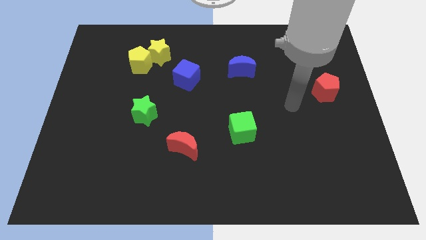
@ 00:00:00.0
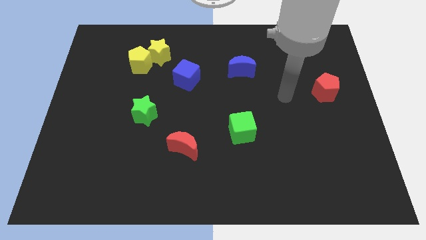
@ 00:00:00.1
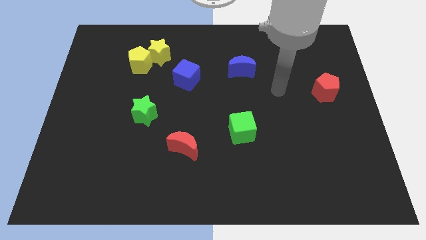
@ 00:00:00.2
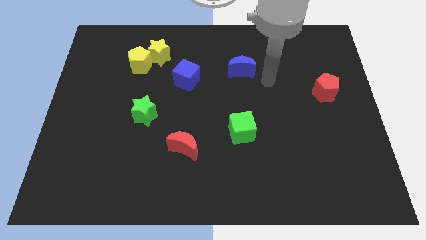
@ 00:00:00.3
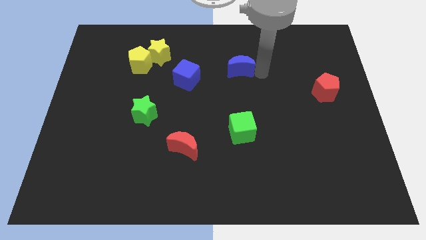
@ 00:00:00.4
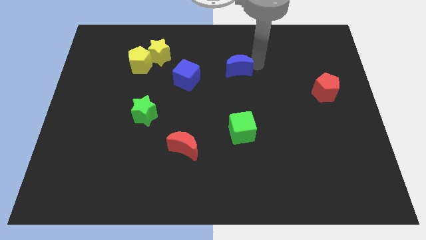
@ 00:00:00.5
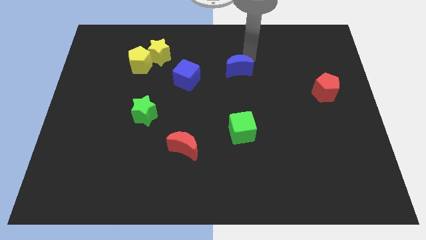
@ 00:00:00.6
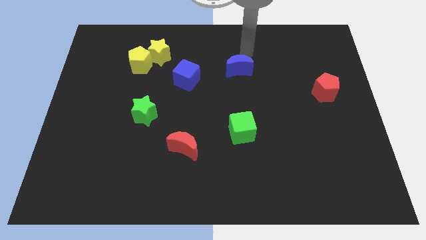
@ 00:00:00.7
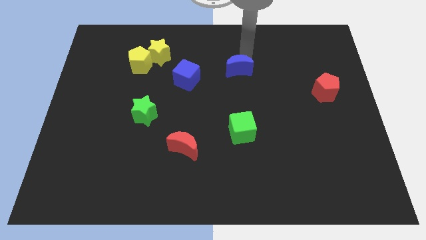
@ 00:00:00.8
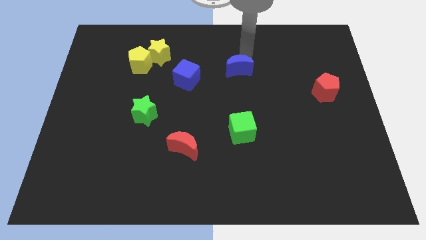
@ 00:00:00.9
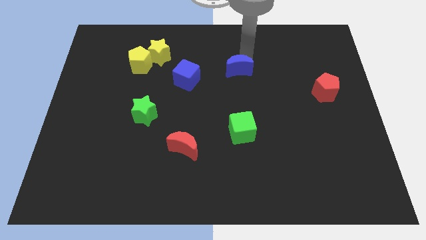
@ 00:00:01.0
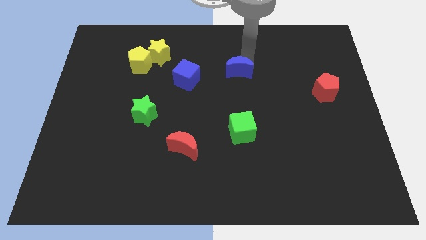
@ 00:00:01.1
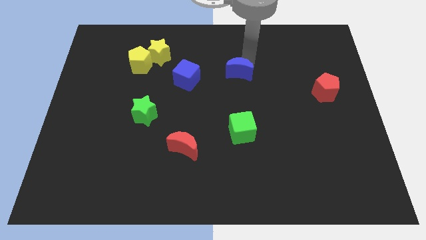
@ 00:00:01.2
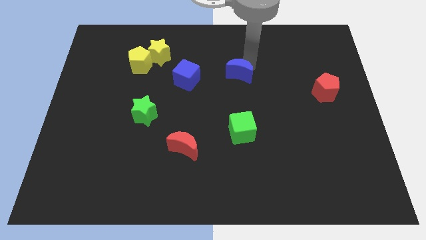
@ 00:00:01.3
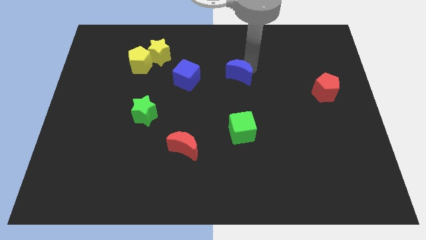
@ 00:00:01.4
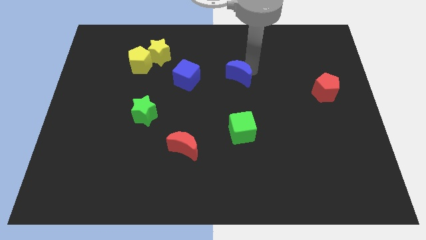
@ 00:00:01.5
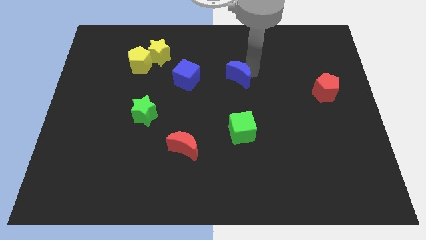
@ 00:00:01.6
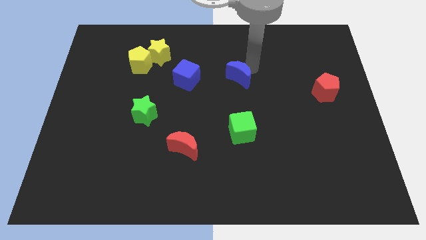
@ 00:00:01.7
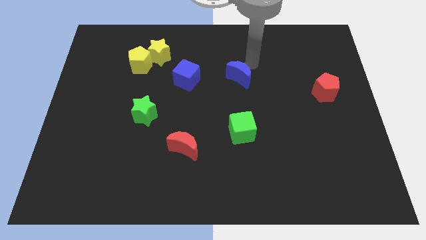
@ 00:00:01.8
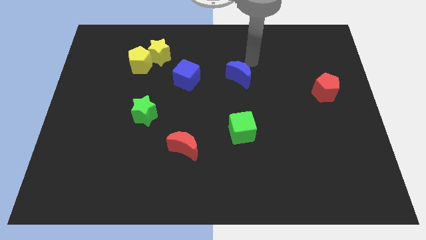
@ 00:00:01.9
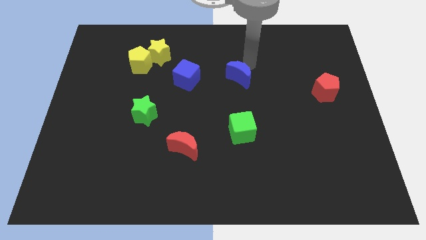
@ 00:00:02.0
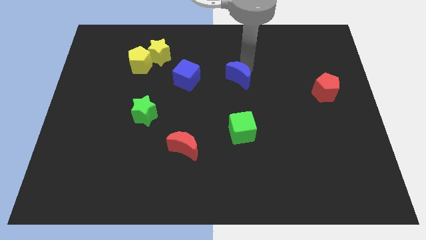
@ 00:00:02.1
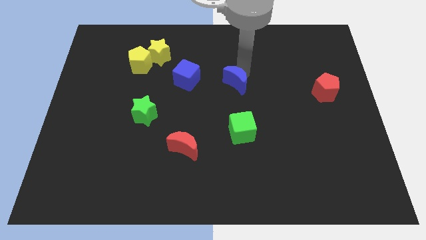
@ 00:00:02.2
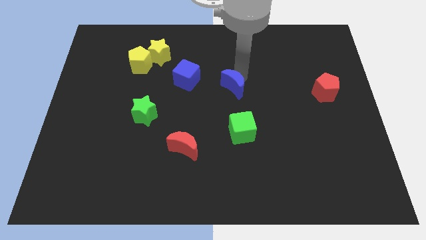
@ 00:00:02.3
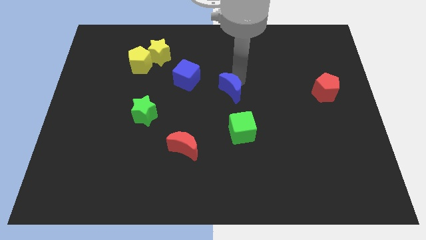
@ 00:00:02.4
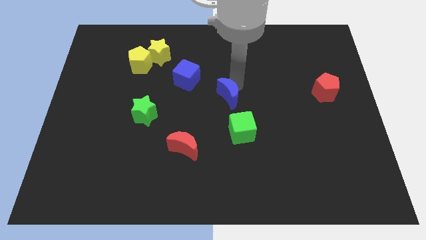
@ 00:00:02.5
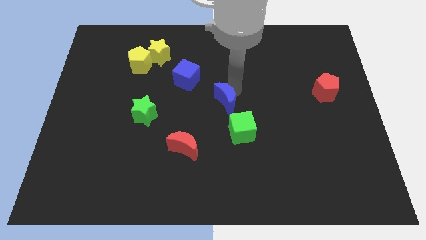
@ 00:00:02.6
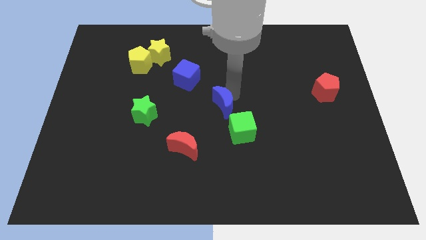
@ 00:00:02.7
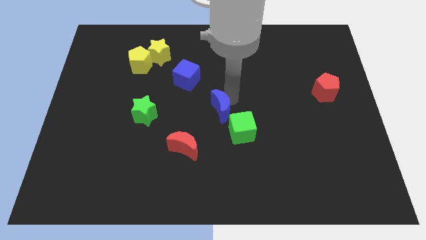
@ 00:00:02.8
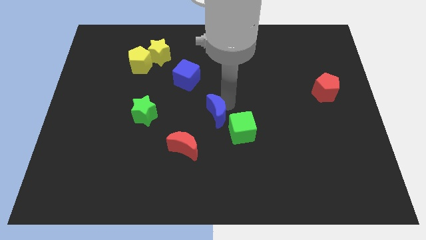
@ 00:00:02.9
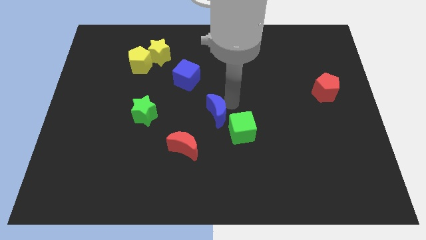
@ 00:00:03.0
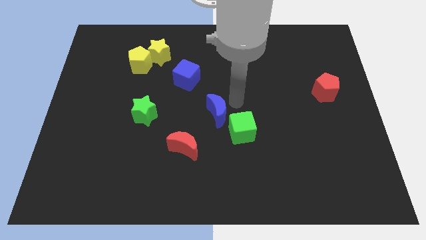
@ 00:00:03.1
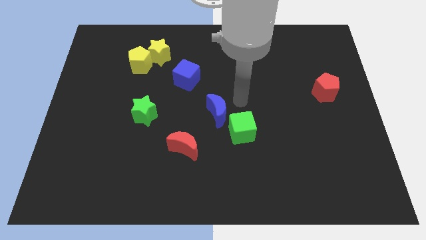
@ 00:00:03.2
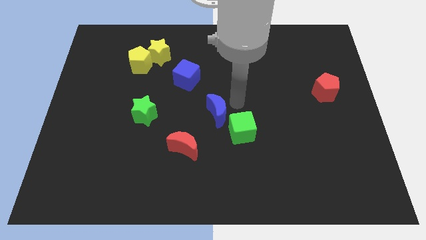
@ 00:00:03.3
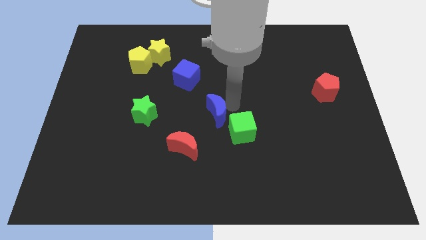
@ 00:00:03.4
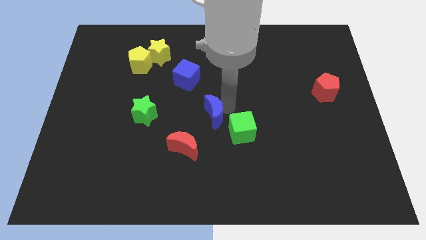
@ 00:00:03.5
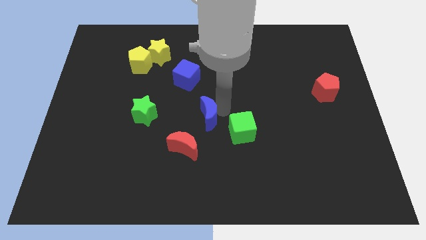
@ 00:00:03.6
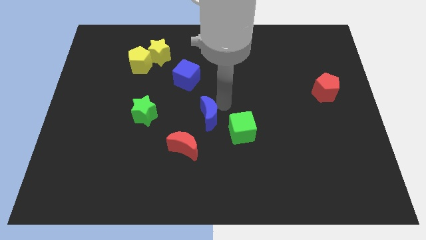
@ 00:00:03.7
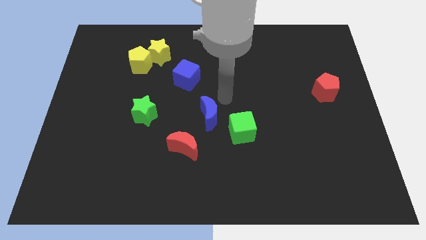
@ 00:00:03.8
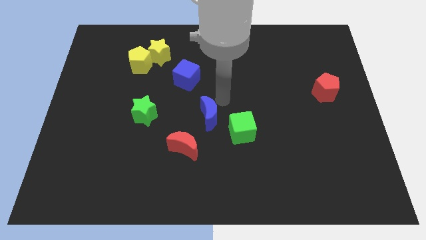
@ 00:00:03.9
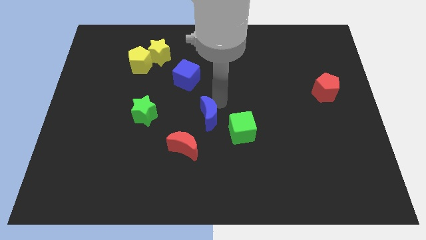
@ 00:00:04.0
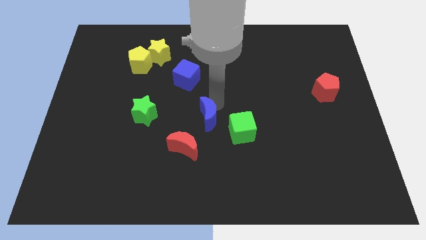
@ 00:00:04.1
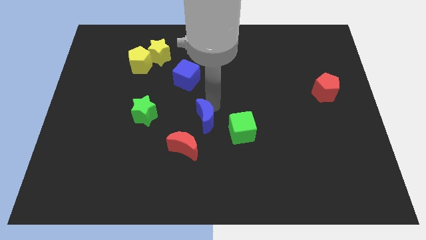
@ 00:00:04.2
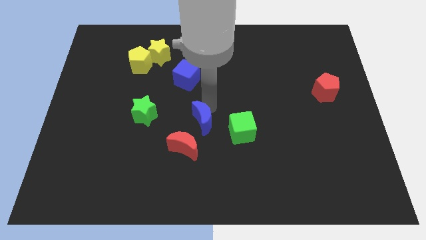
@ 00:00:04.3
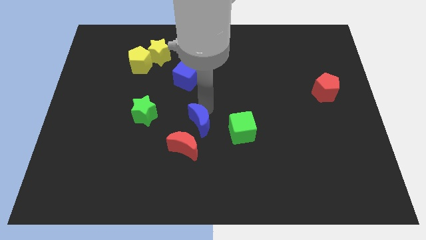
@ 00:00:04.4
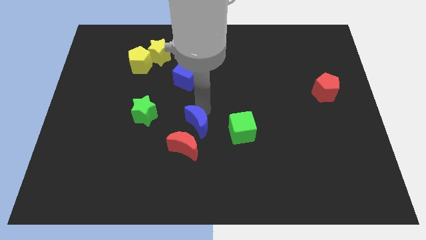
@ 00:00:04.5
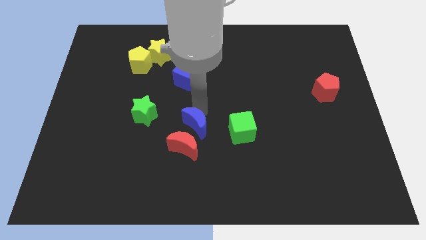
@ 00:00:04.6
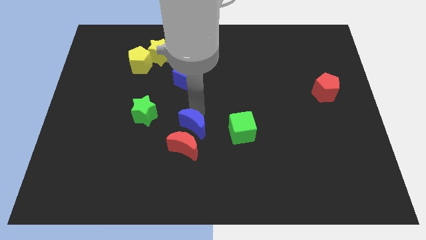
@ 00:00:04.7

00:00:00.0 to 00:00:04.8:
move the blue moon close to the red moon

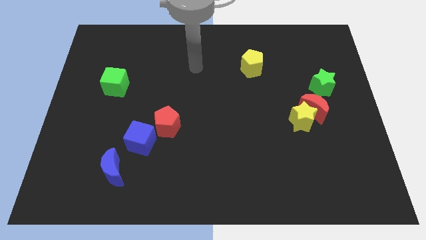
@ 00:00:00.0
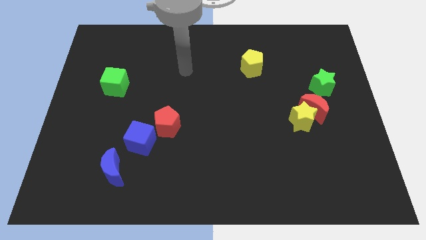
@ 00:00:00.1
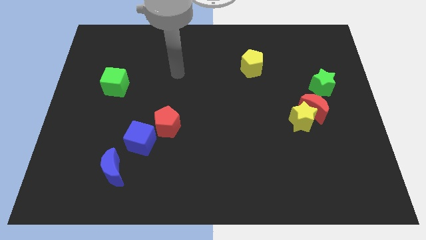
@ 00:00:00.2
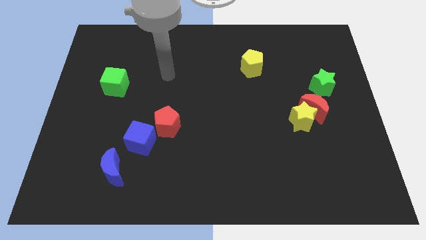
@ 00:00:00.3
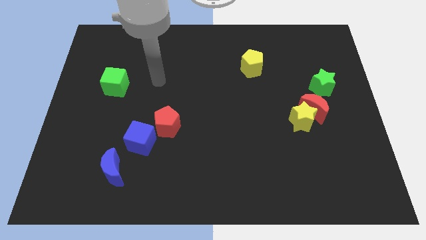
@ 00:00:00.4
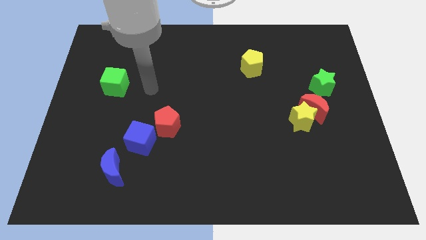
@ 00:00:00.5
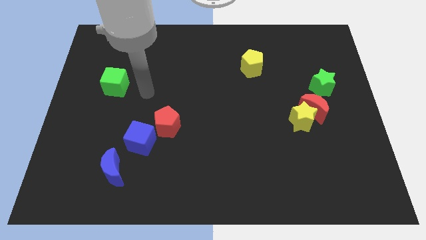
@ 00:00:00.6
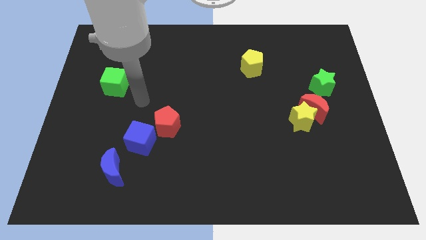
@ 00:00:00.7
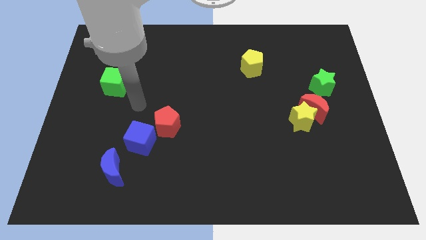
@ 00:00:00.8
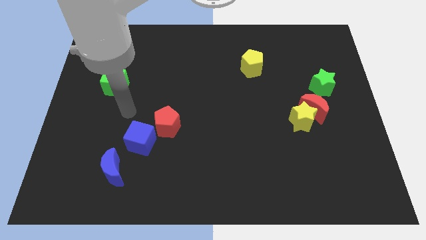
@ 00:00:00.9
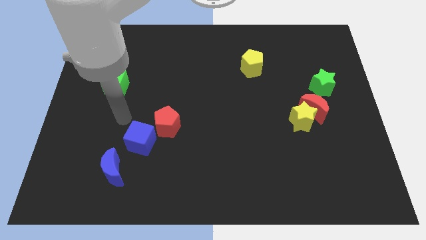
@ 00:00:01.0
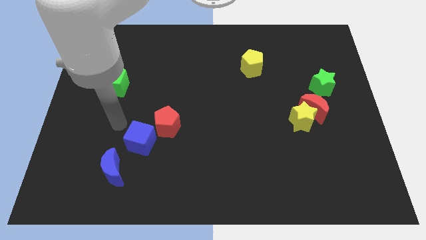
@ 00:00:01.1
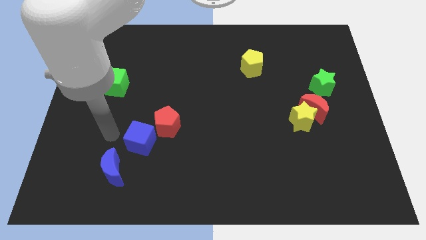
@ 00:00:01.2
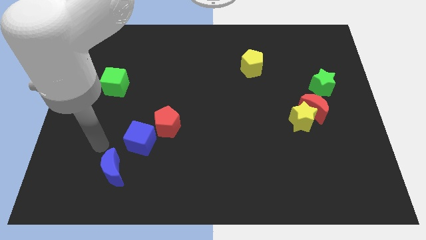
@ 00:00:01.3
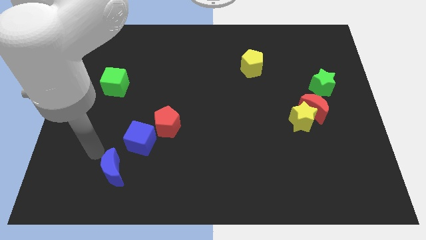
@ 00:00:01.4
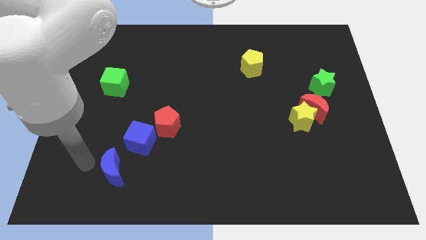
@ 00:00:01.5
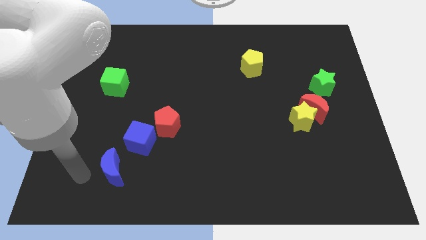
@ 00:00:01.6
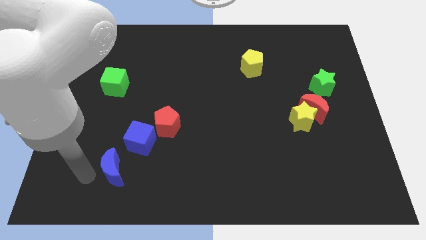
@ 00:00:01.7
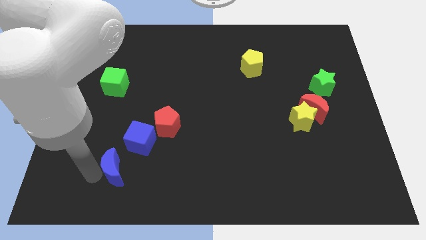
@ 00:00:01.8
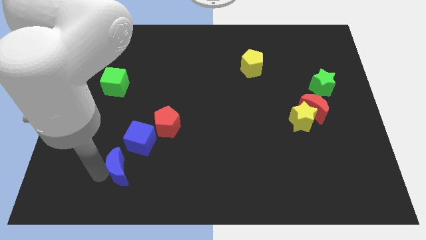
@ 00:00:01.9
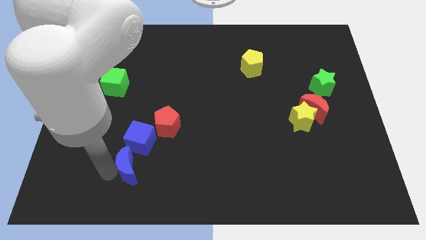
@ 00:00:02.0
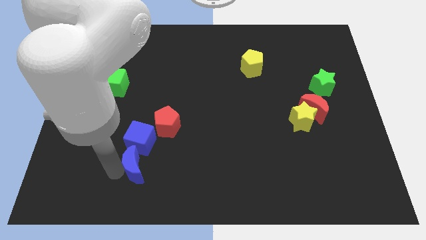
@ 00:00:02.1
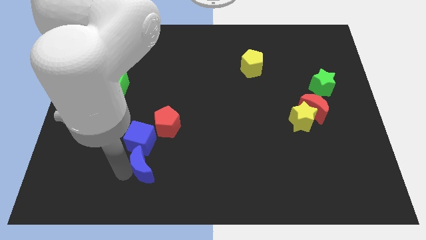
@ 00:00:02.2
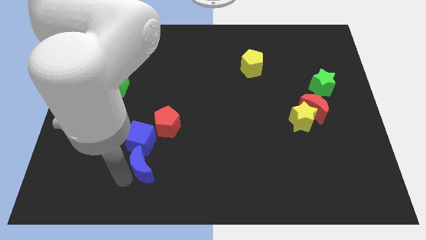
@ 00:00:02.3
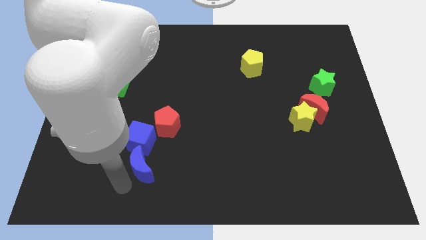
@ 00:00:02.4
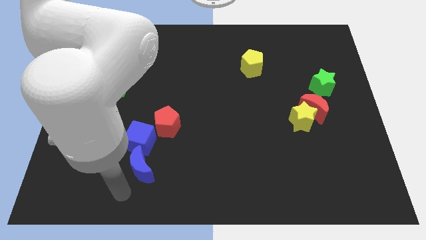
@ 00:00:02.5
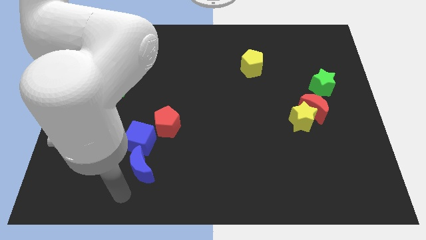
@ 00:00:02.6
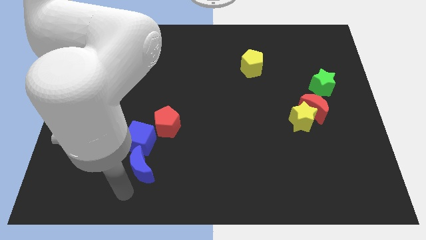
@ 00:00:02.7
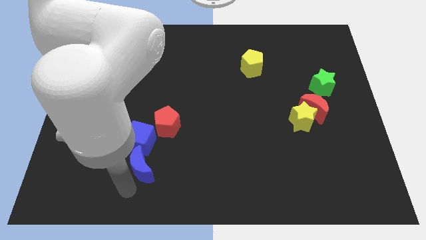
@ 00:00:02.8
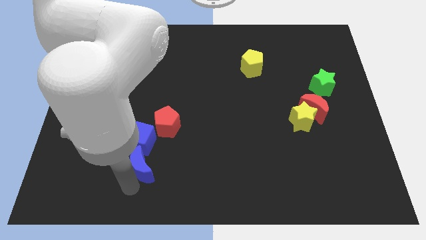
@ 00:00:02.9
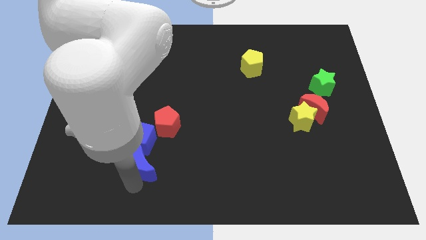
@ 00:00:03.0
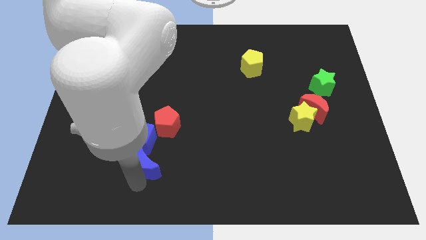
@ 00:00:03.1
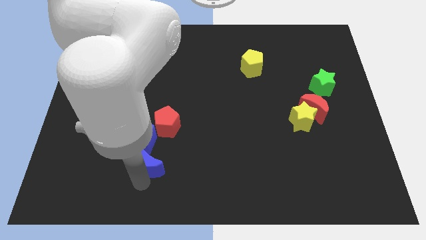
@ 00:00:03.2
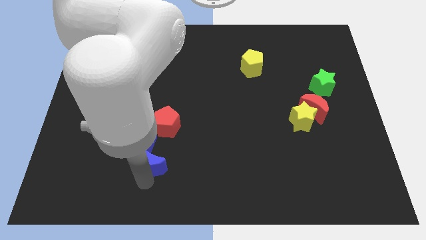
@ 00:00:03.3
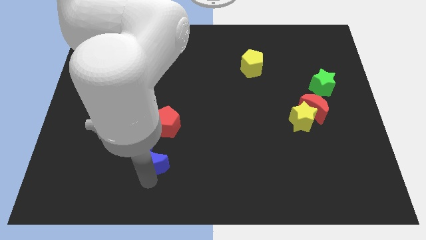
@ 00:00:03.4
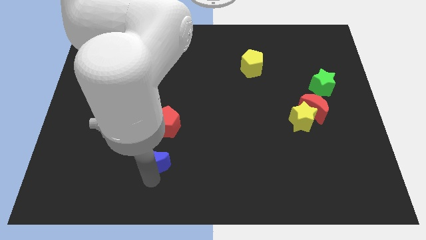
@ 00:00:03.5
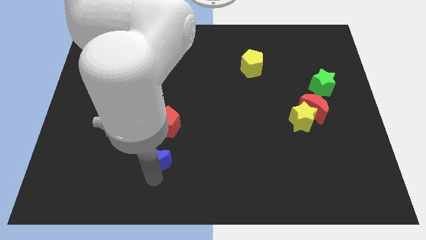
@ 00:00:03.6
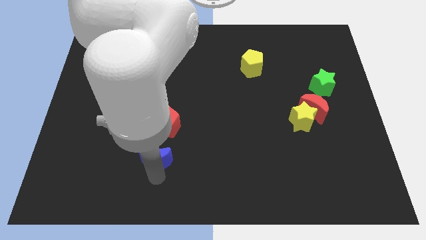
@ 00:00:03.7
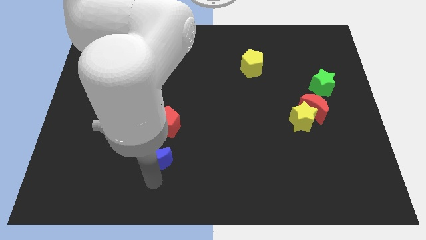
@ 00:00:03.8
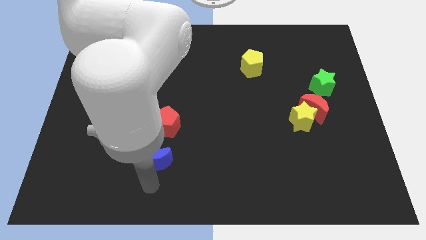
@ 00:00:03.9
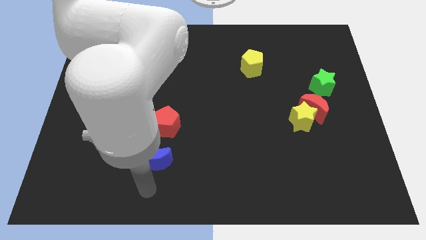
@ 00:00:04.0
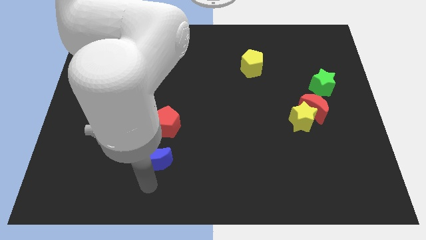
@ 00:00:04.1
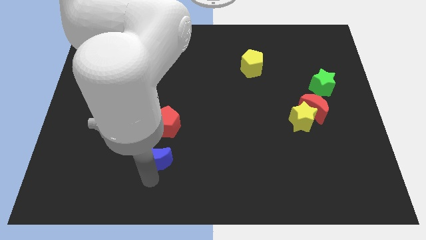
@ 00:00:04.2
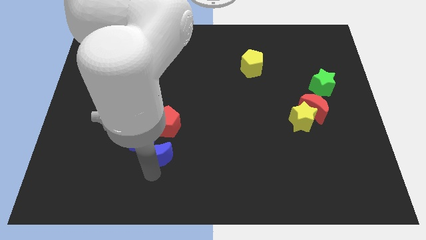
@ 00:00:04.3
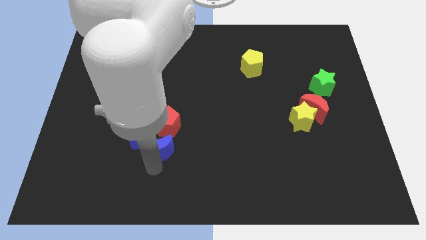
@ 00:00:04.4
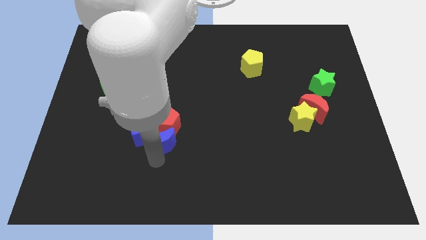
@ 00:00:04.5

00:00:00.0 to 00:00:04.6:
put the blue moon to the red pentagon
